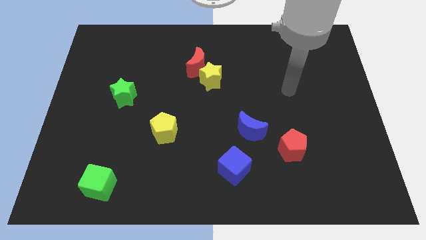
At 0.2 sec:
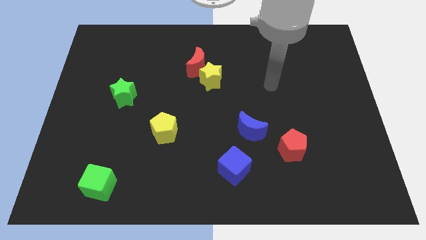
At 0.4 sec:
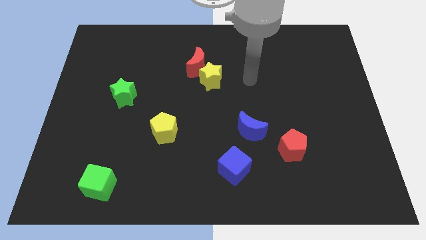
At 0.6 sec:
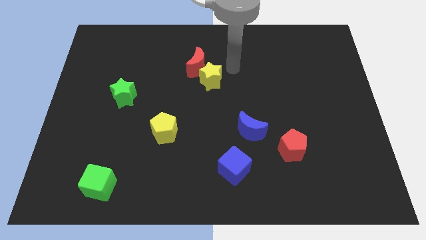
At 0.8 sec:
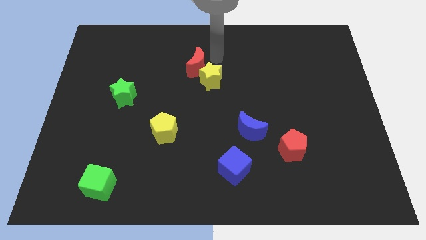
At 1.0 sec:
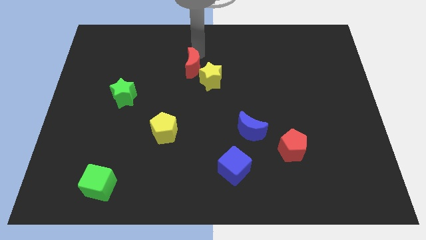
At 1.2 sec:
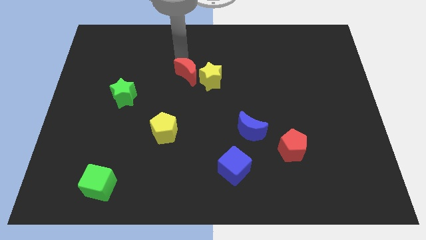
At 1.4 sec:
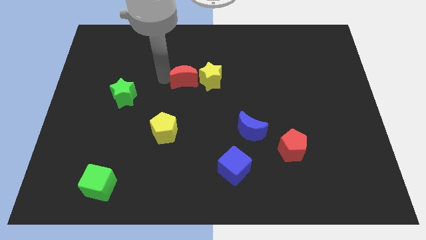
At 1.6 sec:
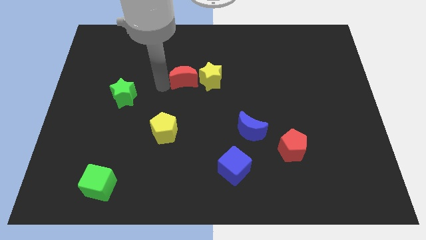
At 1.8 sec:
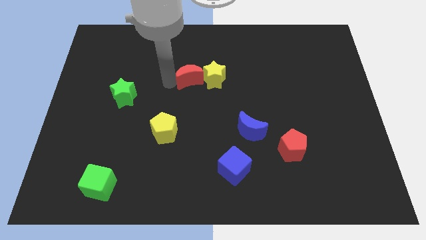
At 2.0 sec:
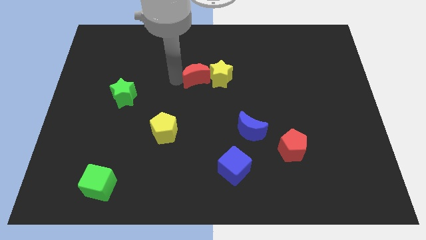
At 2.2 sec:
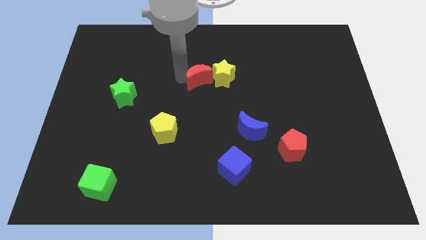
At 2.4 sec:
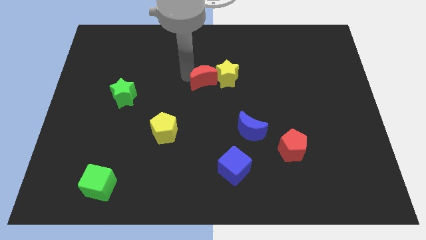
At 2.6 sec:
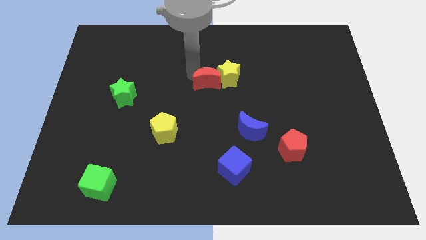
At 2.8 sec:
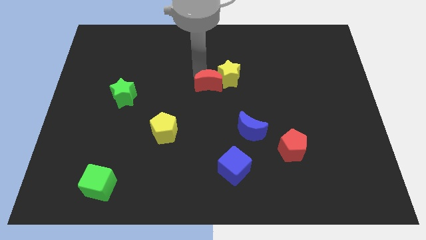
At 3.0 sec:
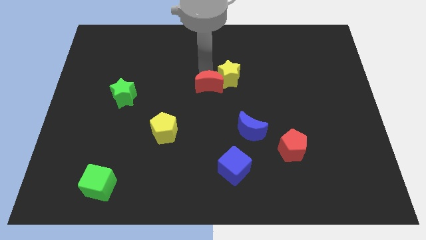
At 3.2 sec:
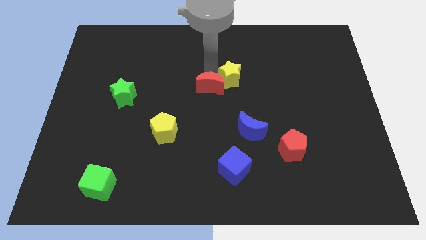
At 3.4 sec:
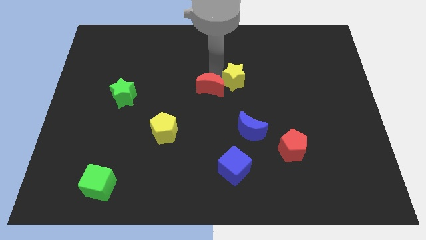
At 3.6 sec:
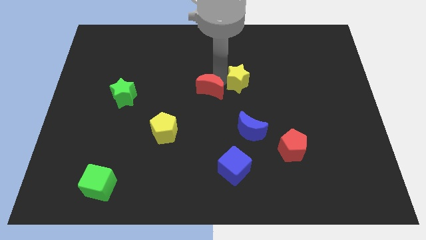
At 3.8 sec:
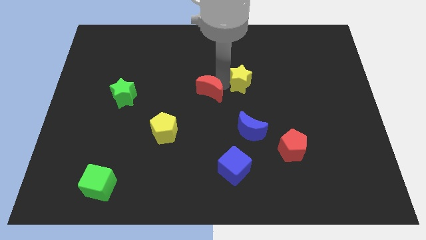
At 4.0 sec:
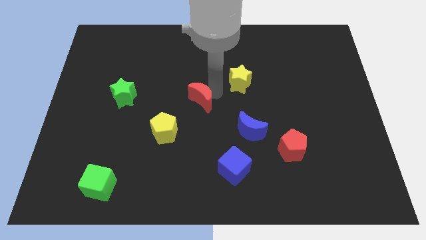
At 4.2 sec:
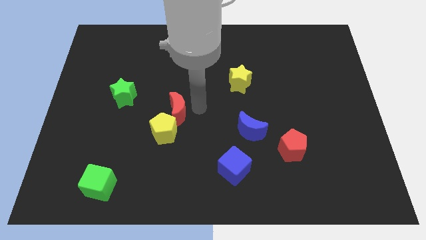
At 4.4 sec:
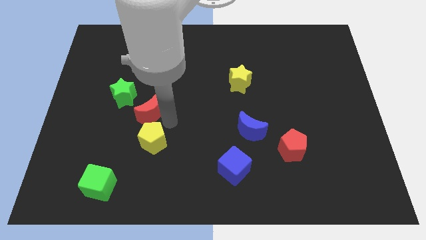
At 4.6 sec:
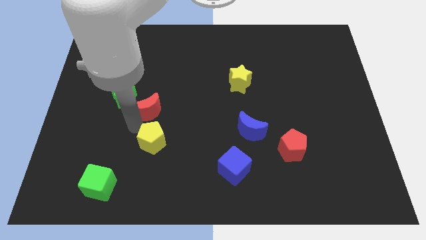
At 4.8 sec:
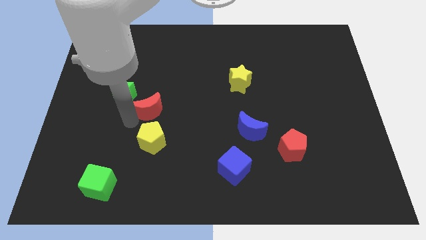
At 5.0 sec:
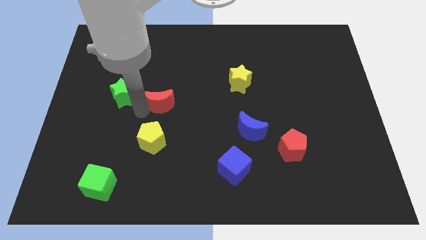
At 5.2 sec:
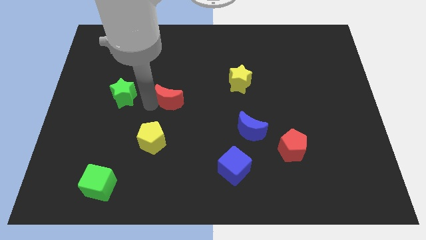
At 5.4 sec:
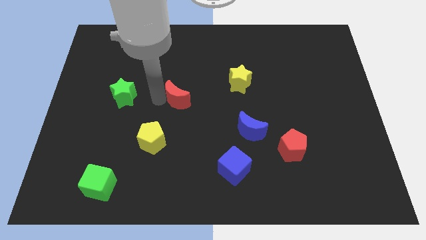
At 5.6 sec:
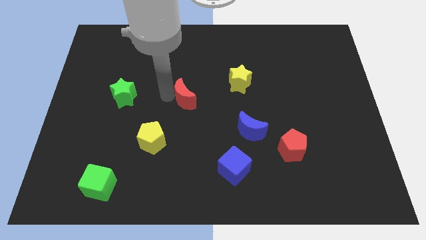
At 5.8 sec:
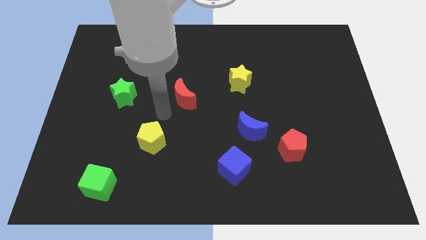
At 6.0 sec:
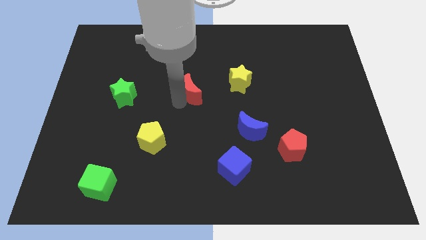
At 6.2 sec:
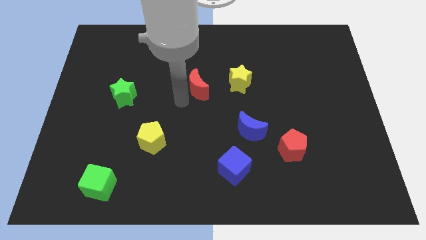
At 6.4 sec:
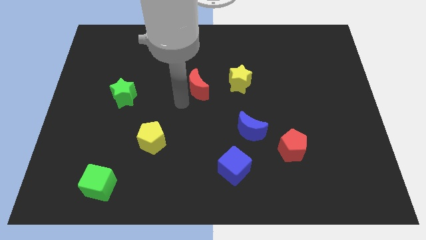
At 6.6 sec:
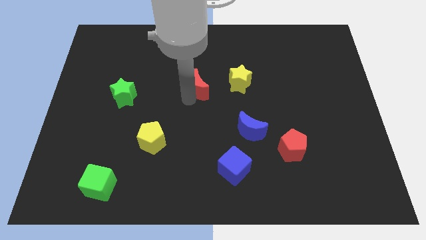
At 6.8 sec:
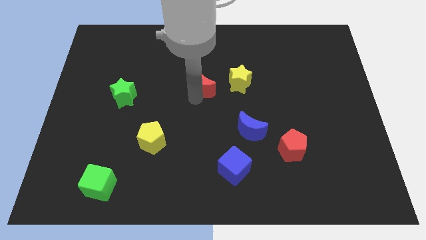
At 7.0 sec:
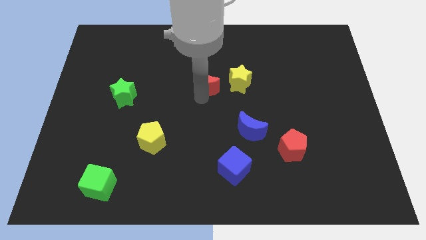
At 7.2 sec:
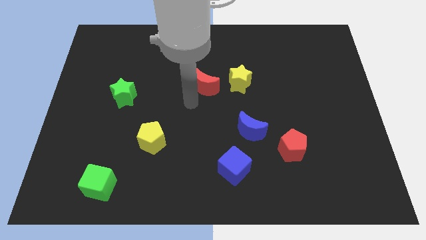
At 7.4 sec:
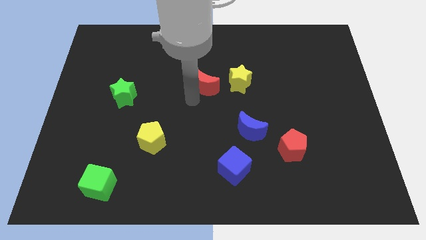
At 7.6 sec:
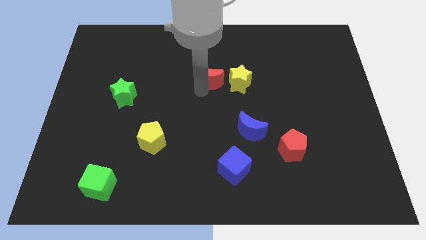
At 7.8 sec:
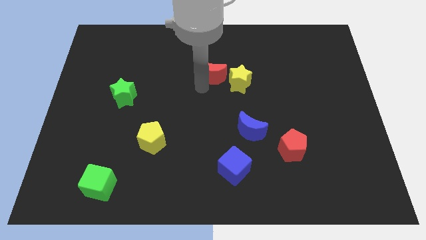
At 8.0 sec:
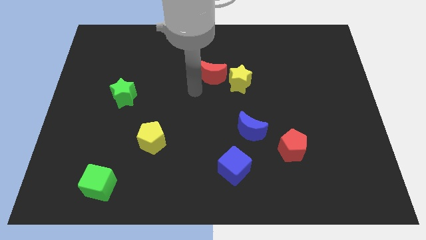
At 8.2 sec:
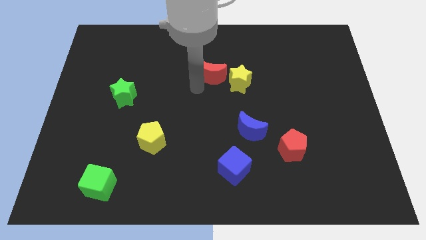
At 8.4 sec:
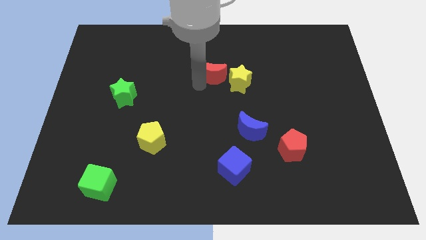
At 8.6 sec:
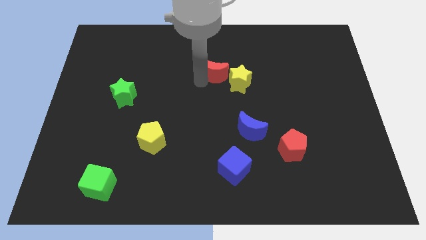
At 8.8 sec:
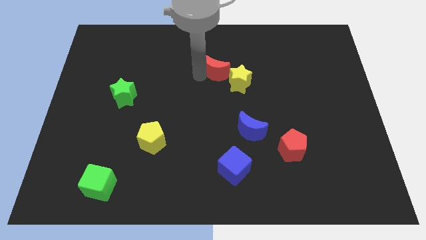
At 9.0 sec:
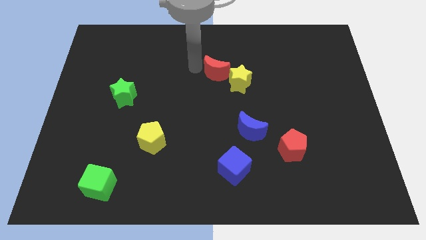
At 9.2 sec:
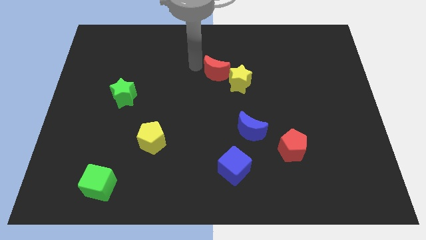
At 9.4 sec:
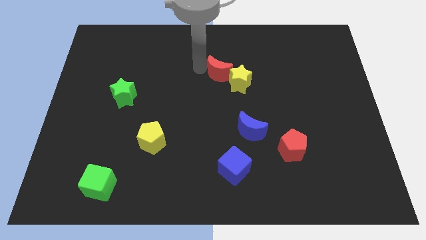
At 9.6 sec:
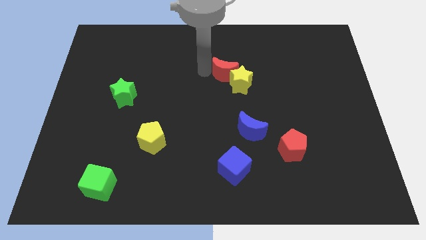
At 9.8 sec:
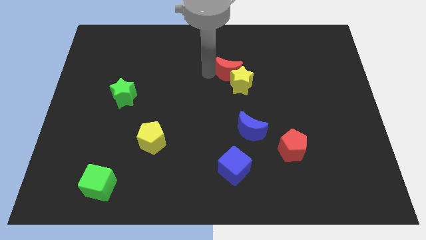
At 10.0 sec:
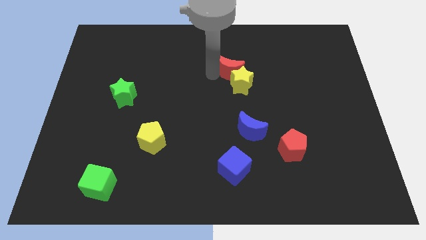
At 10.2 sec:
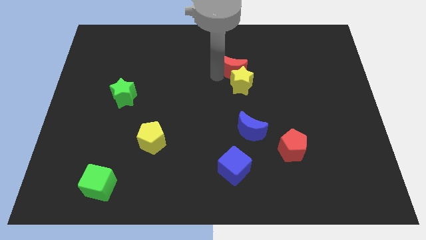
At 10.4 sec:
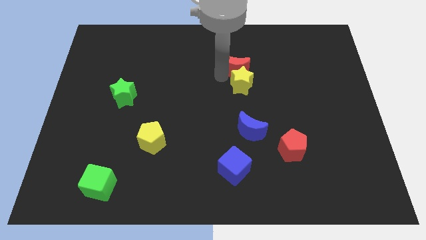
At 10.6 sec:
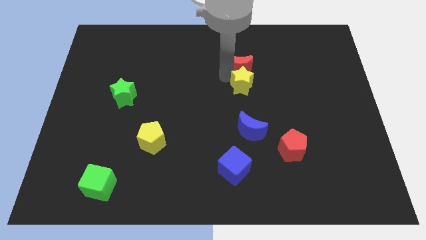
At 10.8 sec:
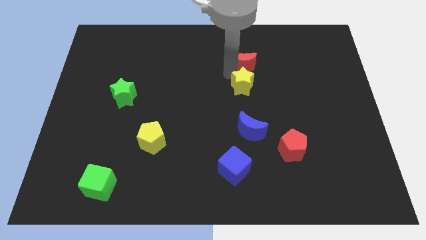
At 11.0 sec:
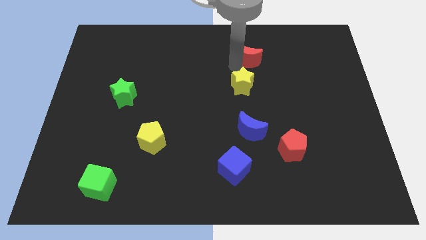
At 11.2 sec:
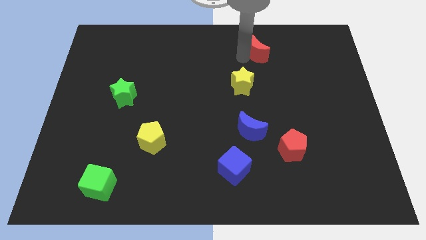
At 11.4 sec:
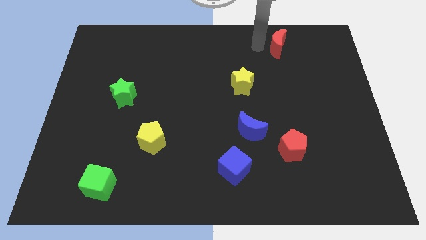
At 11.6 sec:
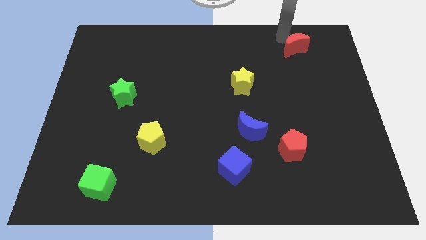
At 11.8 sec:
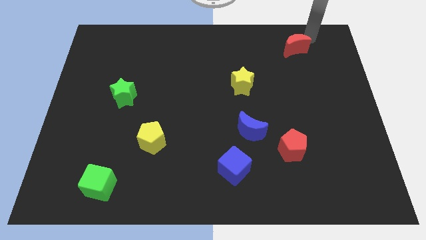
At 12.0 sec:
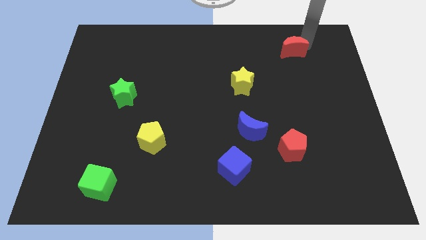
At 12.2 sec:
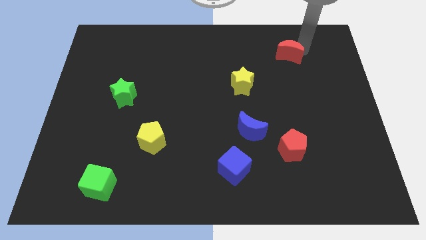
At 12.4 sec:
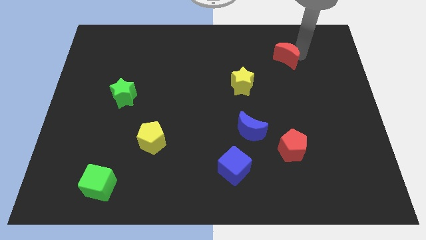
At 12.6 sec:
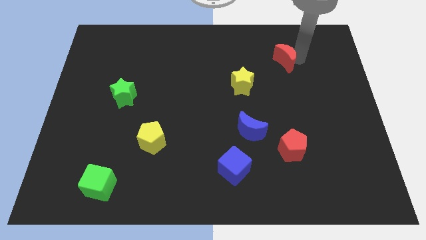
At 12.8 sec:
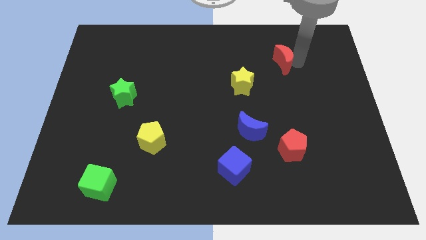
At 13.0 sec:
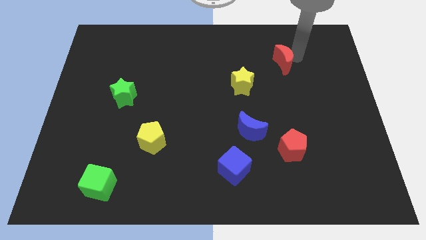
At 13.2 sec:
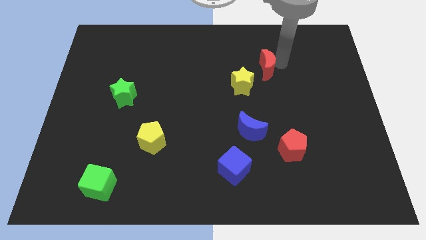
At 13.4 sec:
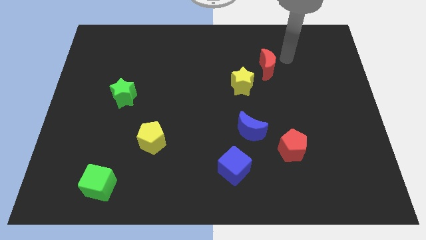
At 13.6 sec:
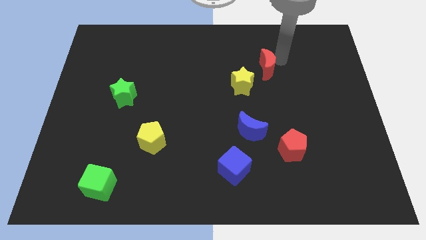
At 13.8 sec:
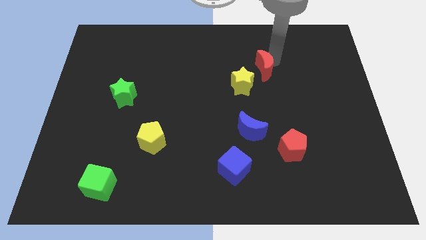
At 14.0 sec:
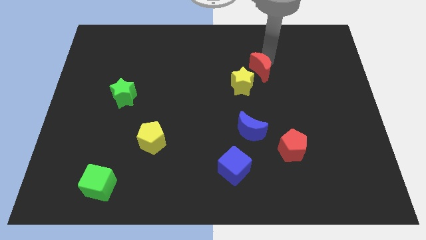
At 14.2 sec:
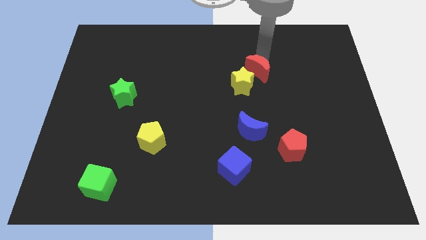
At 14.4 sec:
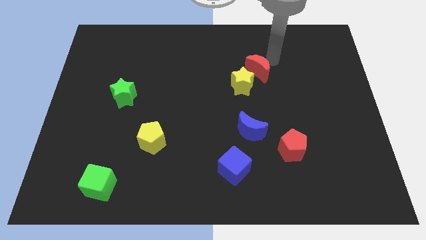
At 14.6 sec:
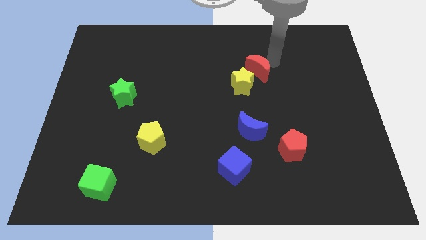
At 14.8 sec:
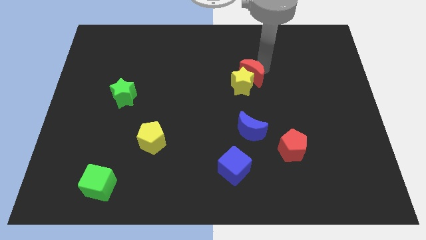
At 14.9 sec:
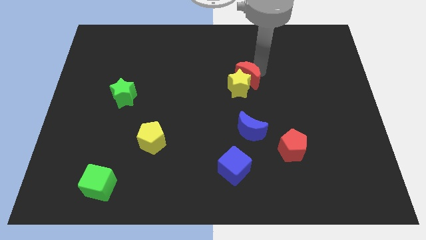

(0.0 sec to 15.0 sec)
move the red moon to the top side of the blue moon
